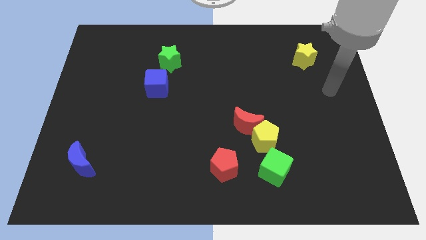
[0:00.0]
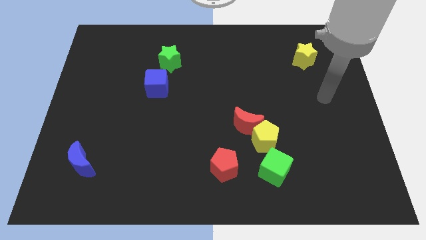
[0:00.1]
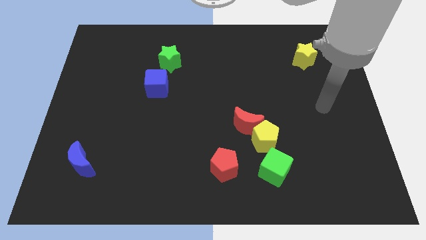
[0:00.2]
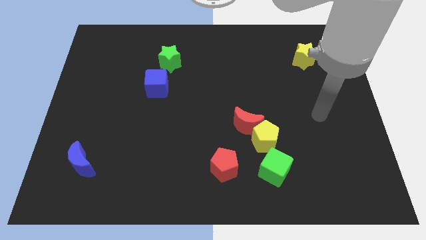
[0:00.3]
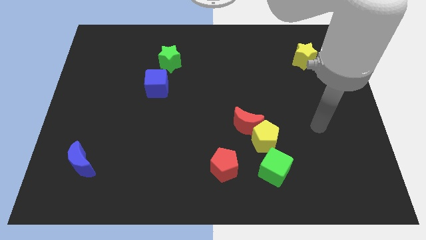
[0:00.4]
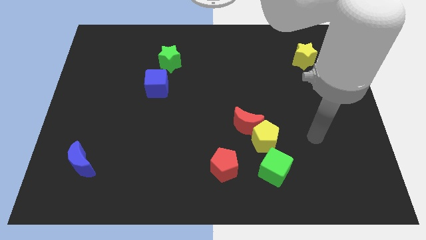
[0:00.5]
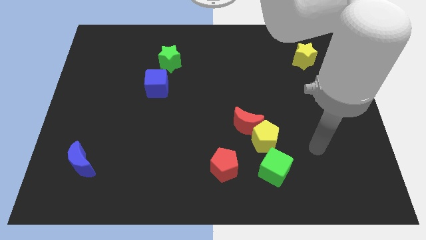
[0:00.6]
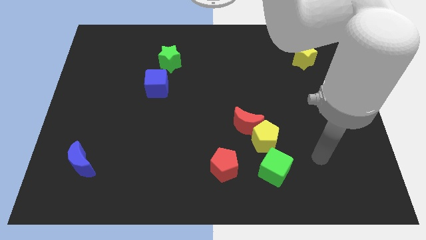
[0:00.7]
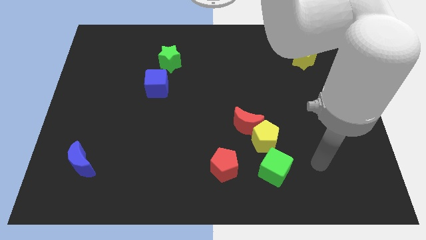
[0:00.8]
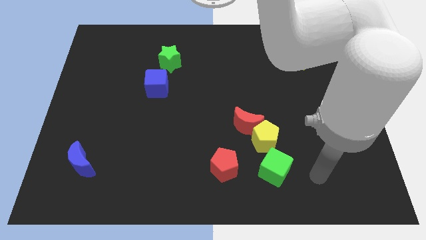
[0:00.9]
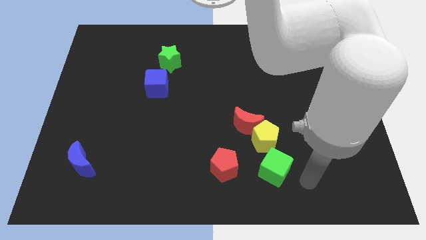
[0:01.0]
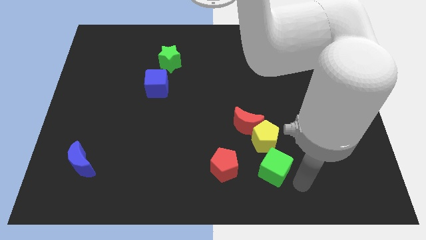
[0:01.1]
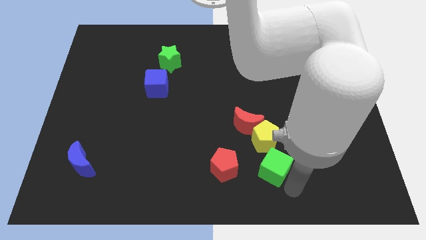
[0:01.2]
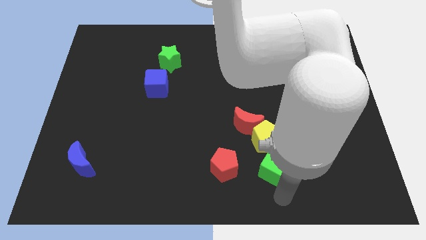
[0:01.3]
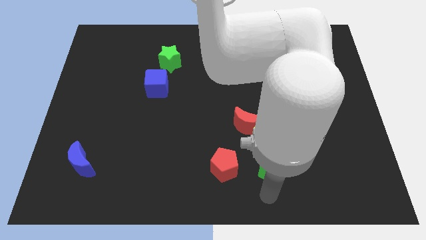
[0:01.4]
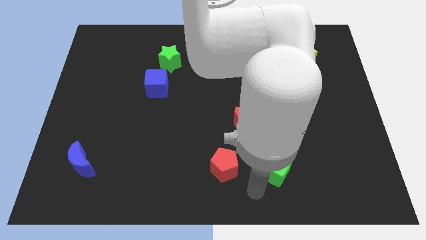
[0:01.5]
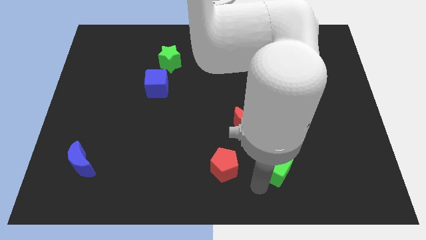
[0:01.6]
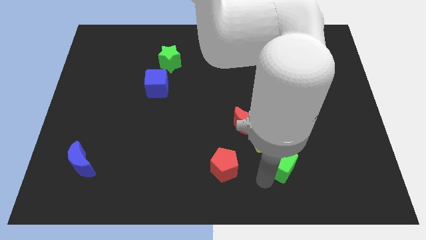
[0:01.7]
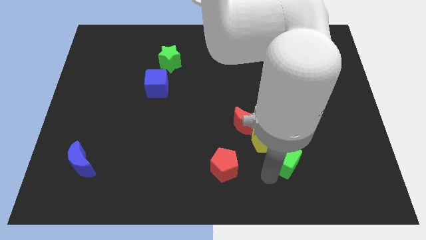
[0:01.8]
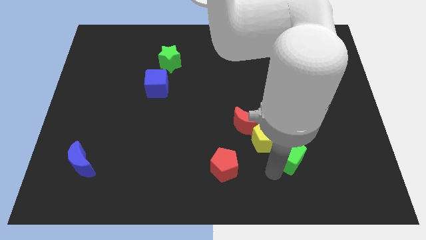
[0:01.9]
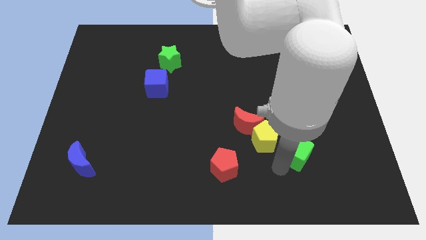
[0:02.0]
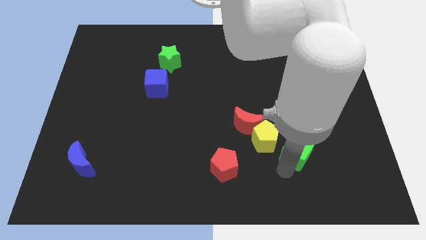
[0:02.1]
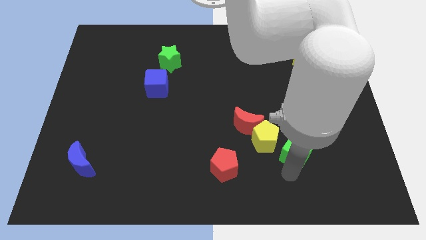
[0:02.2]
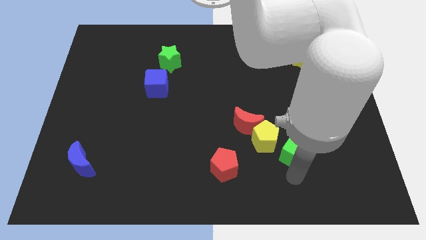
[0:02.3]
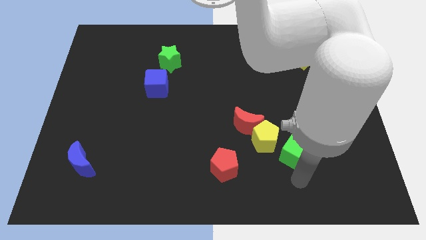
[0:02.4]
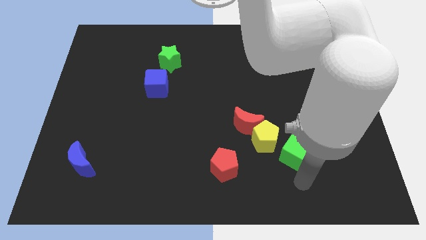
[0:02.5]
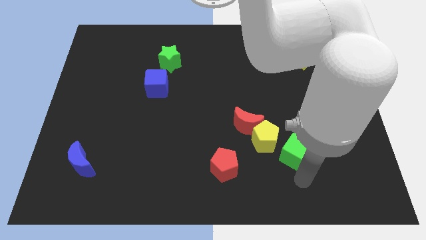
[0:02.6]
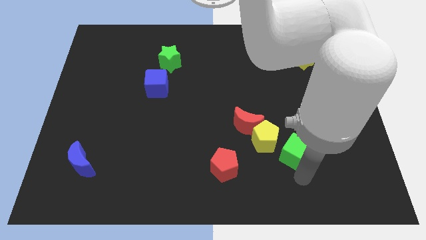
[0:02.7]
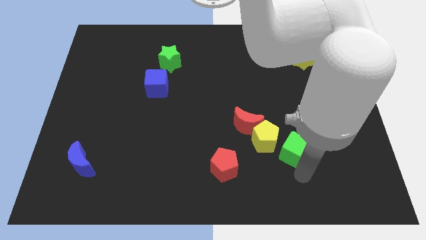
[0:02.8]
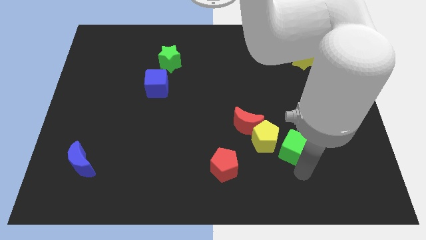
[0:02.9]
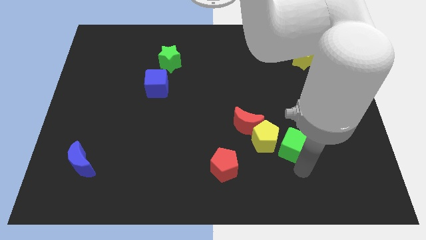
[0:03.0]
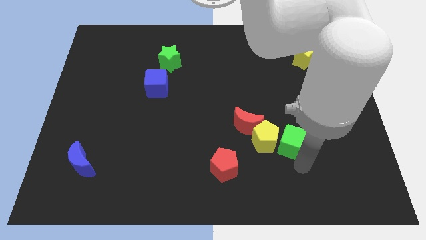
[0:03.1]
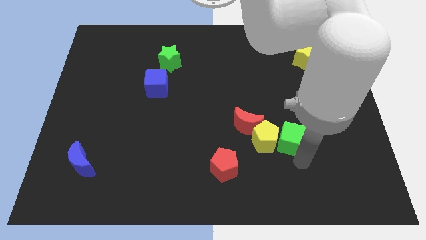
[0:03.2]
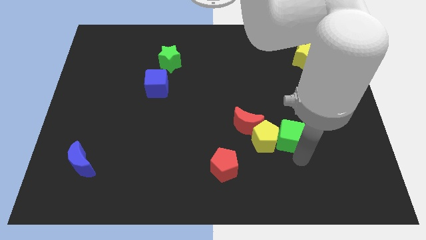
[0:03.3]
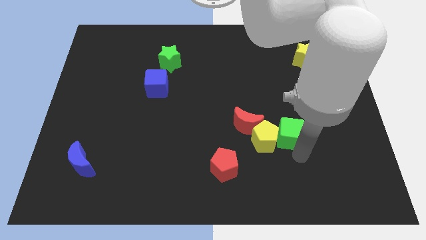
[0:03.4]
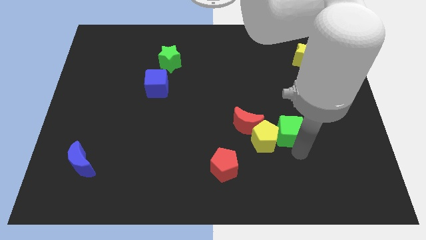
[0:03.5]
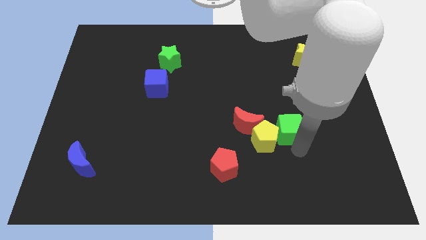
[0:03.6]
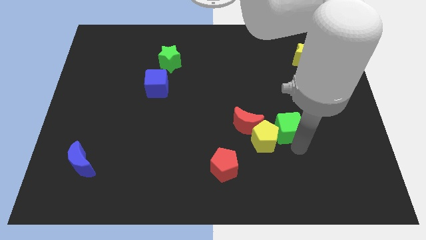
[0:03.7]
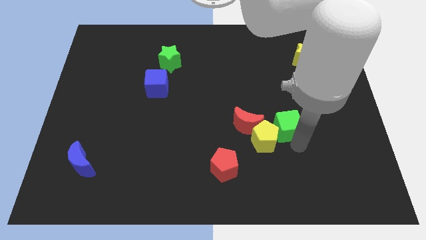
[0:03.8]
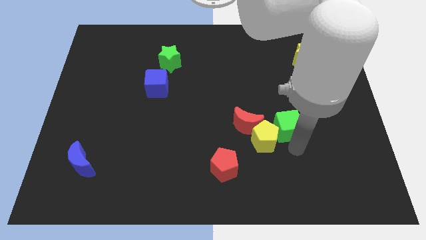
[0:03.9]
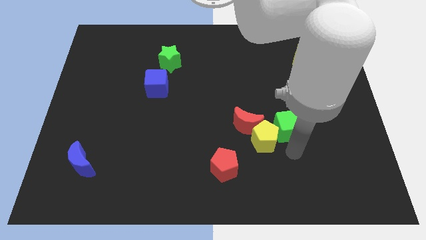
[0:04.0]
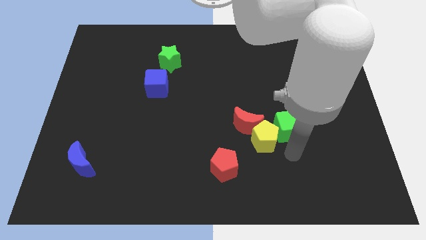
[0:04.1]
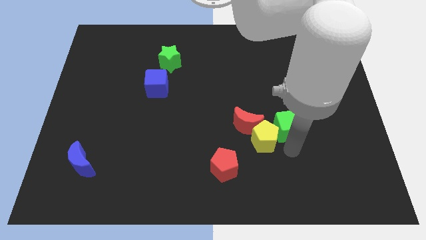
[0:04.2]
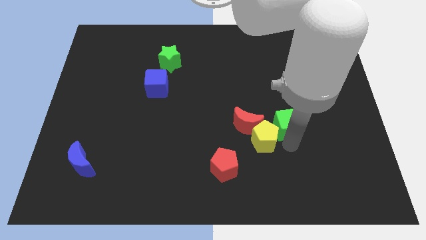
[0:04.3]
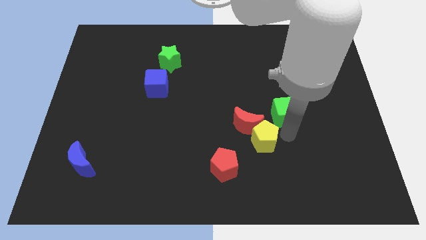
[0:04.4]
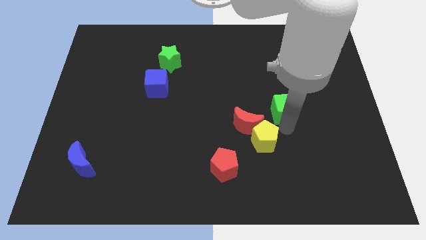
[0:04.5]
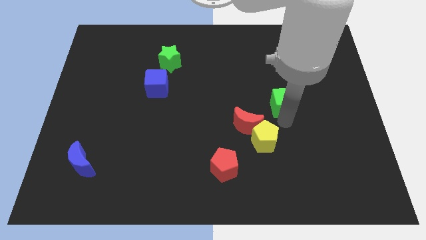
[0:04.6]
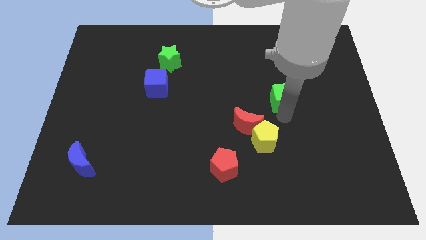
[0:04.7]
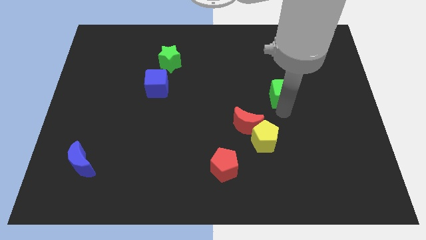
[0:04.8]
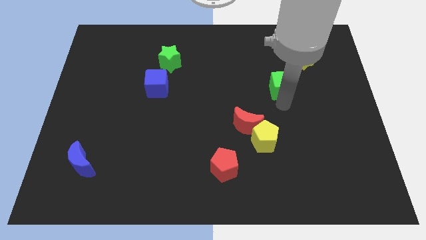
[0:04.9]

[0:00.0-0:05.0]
move the green cube upwards

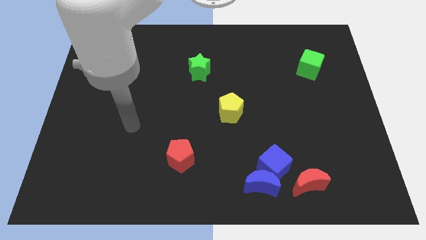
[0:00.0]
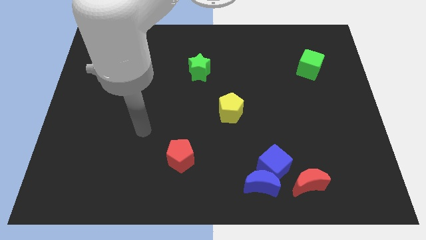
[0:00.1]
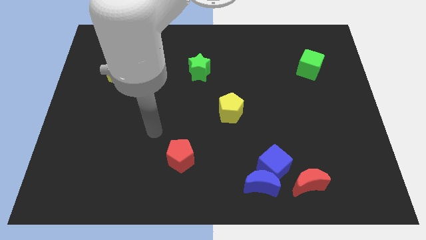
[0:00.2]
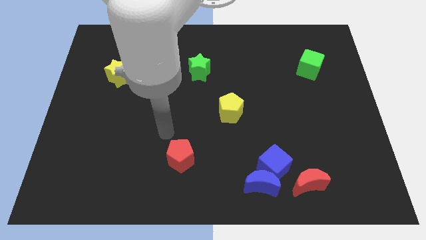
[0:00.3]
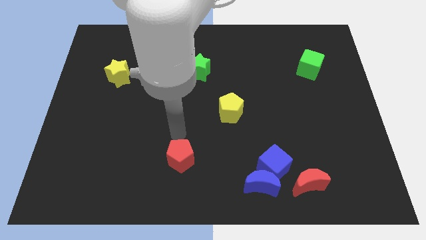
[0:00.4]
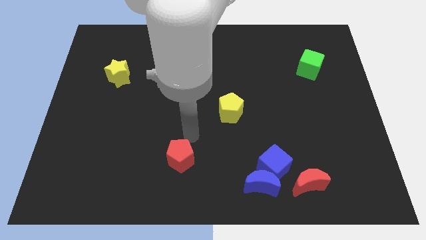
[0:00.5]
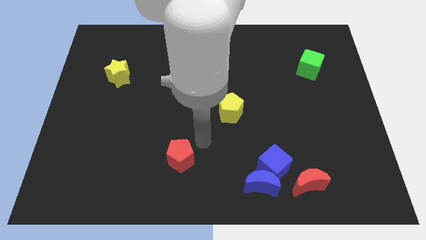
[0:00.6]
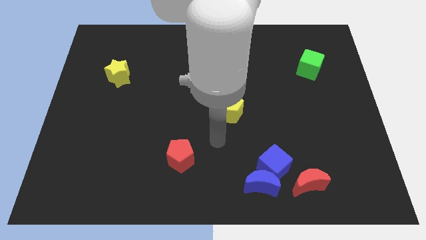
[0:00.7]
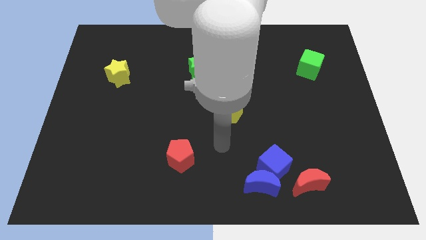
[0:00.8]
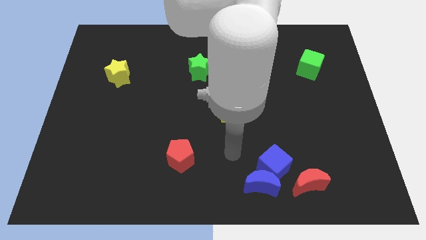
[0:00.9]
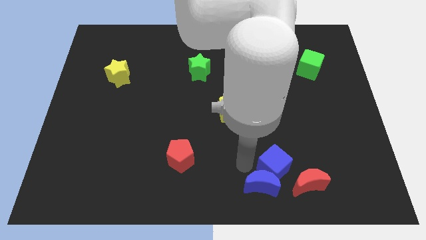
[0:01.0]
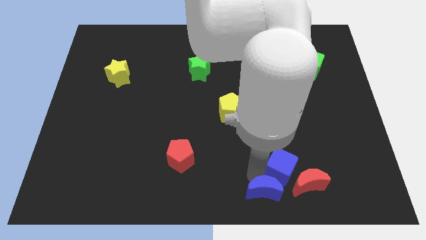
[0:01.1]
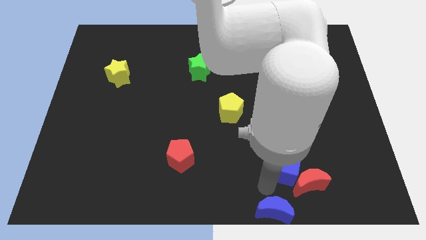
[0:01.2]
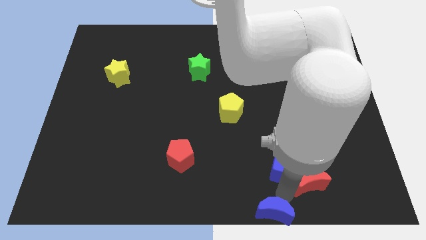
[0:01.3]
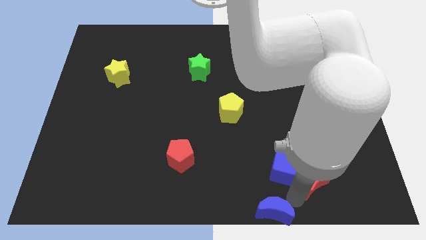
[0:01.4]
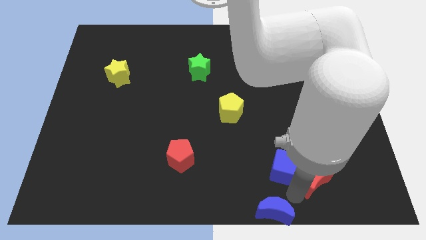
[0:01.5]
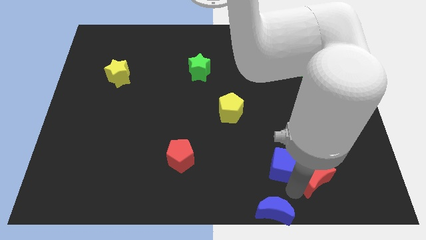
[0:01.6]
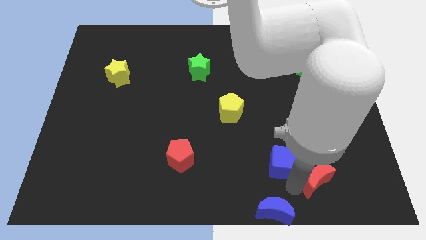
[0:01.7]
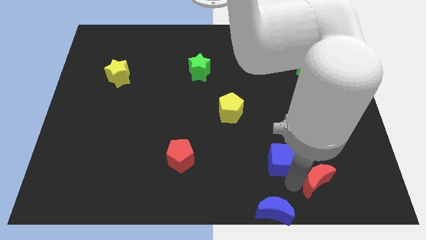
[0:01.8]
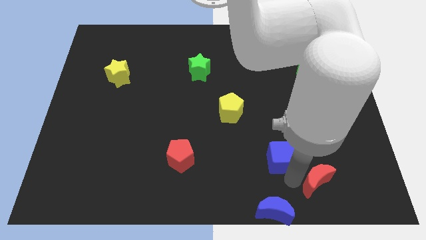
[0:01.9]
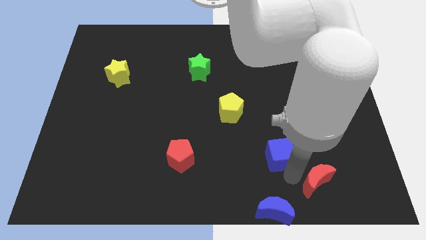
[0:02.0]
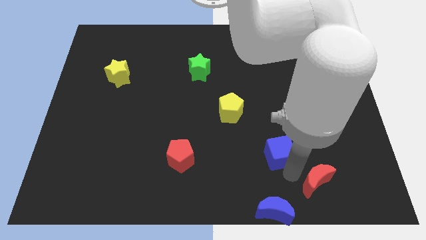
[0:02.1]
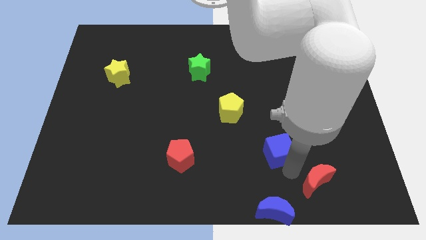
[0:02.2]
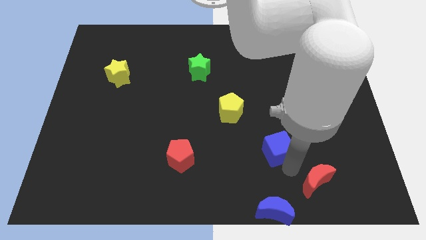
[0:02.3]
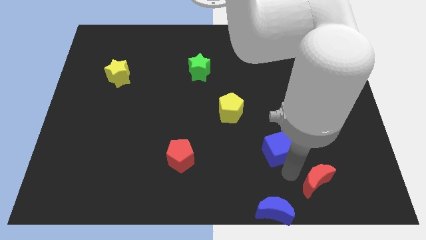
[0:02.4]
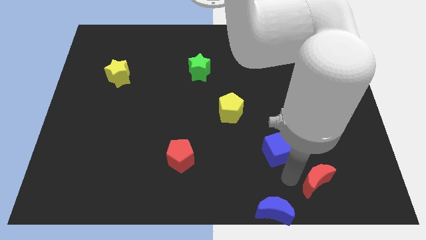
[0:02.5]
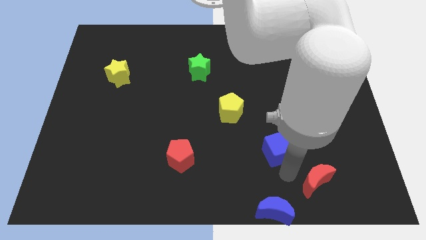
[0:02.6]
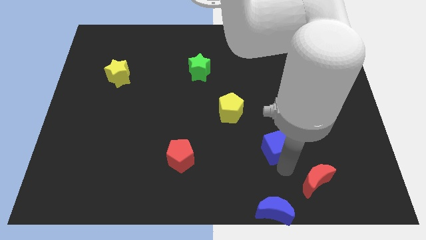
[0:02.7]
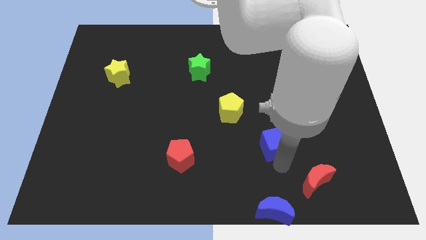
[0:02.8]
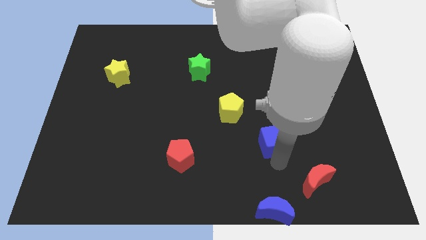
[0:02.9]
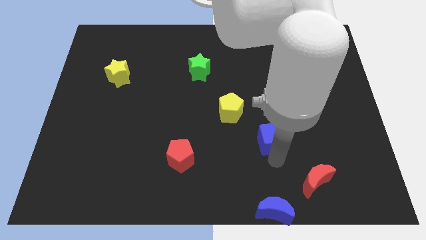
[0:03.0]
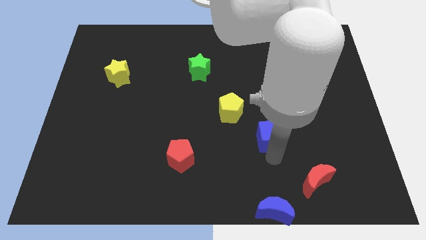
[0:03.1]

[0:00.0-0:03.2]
slide the blue cube up a bit

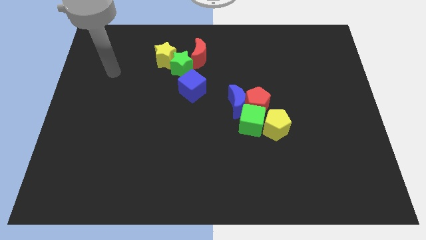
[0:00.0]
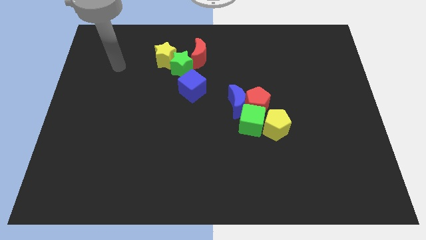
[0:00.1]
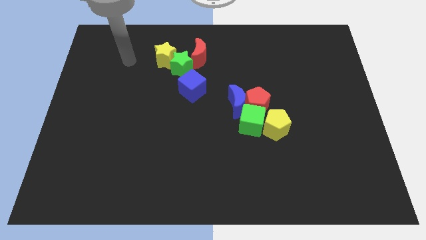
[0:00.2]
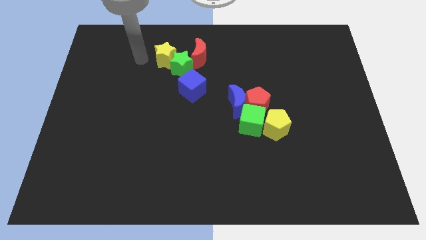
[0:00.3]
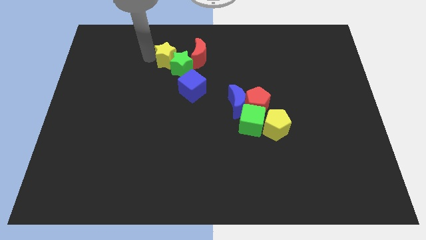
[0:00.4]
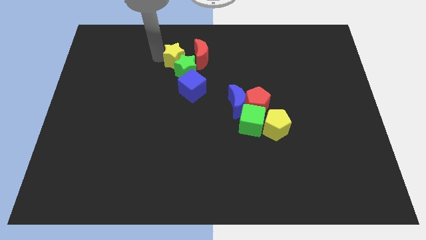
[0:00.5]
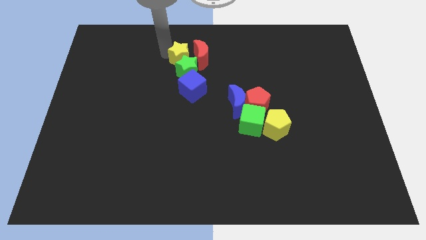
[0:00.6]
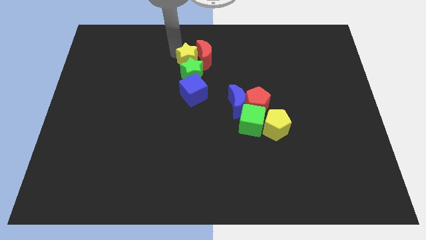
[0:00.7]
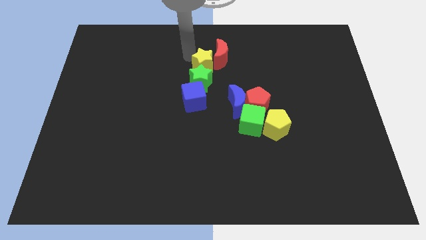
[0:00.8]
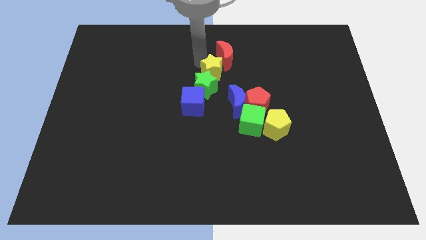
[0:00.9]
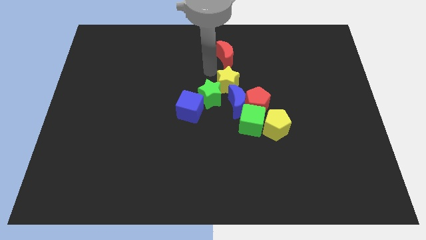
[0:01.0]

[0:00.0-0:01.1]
slightly move the green star down
